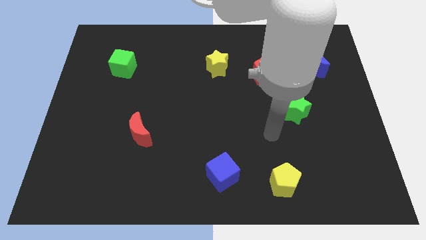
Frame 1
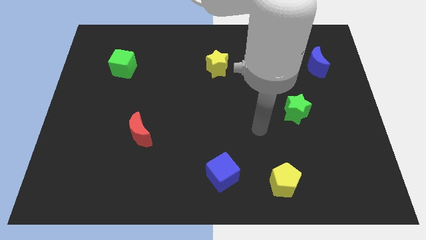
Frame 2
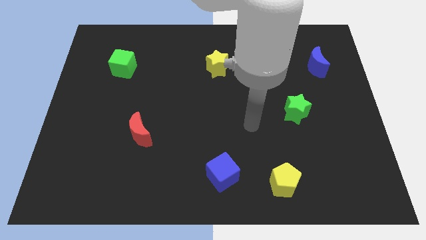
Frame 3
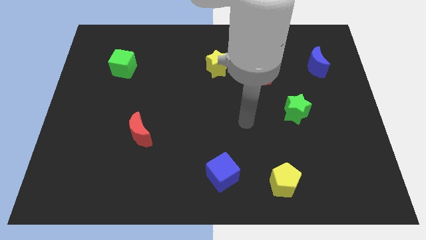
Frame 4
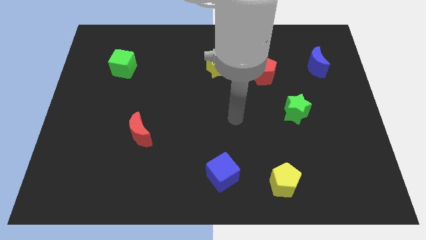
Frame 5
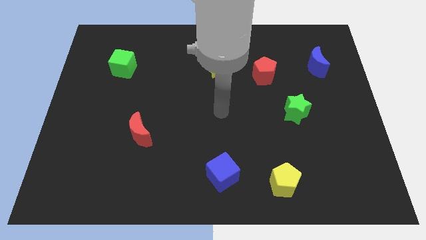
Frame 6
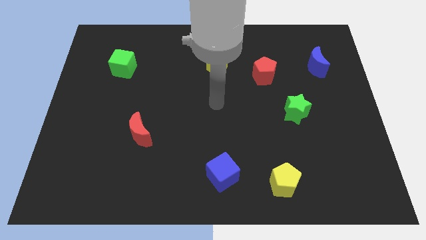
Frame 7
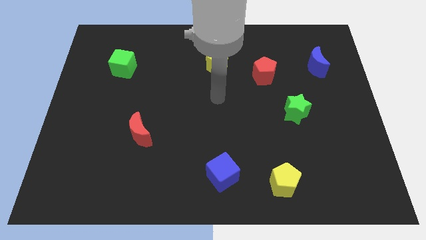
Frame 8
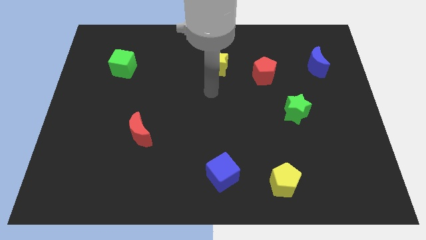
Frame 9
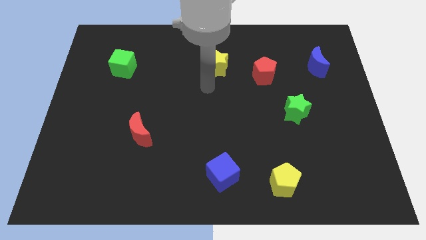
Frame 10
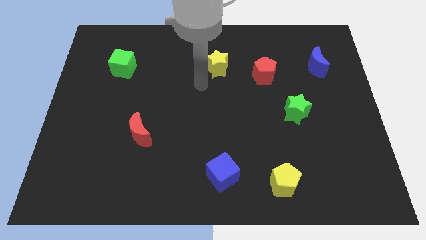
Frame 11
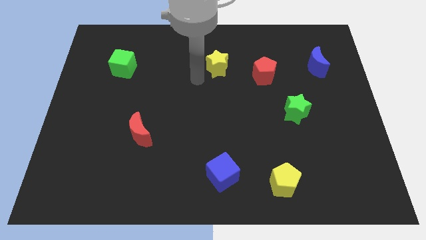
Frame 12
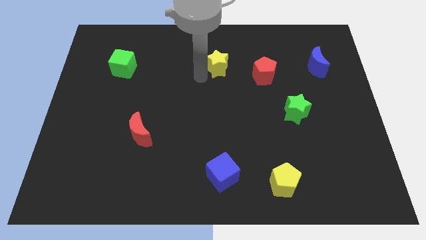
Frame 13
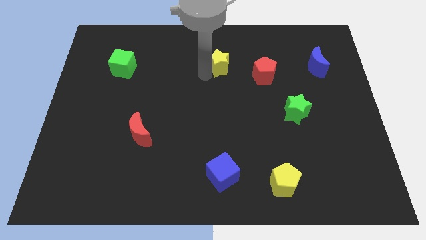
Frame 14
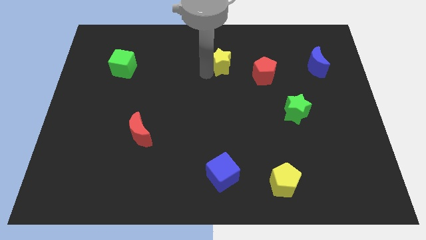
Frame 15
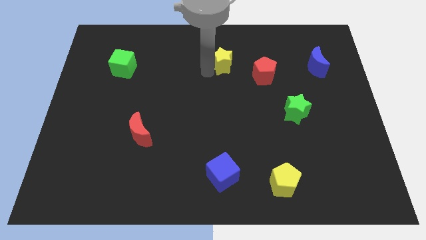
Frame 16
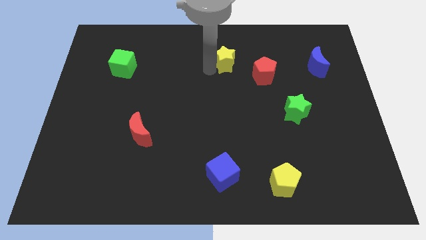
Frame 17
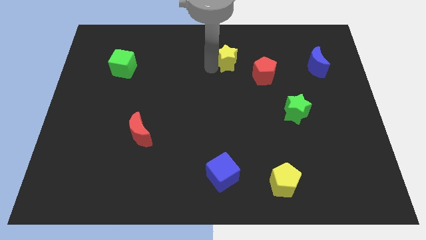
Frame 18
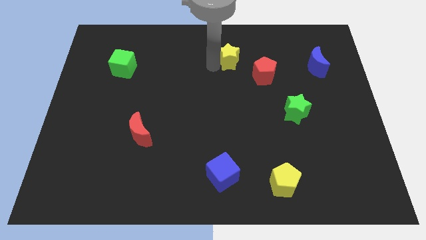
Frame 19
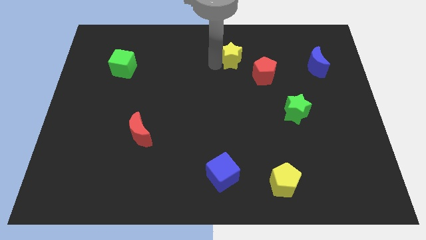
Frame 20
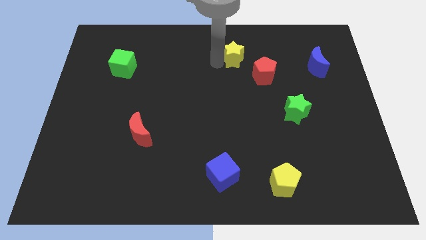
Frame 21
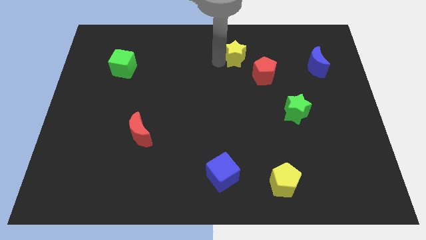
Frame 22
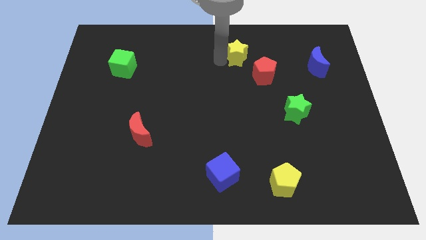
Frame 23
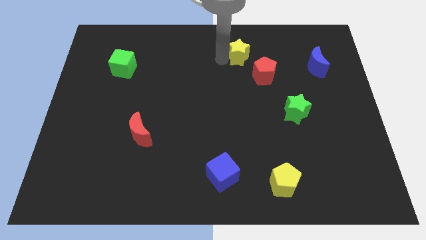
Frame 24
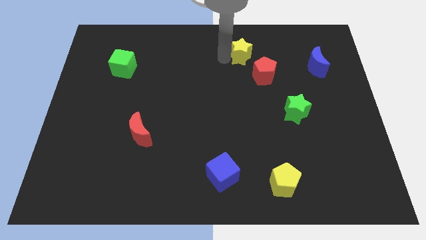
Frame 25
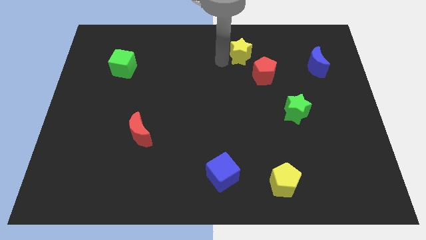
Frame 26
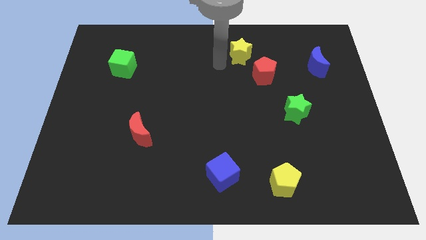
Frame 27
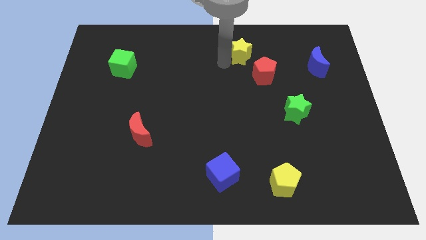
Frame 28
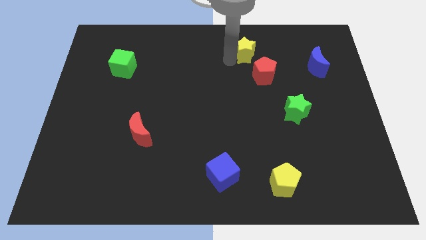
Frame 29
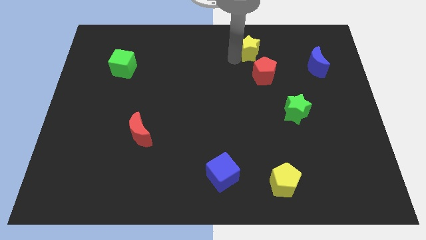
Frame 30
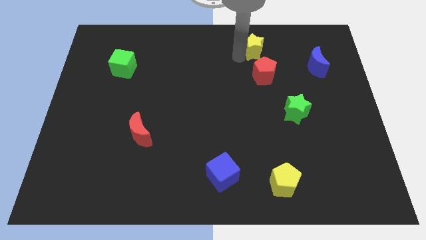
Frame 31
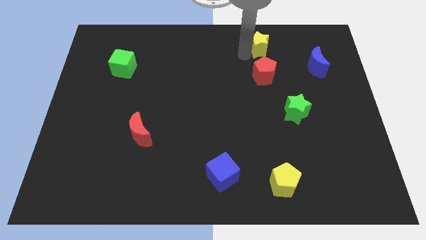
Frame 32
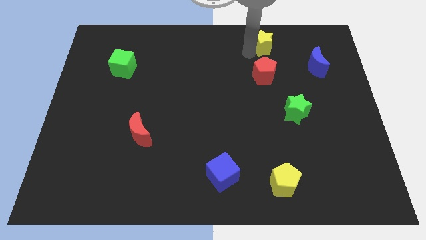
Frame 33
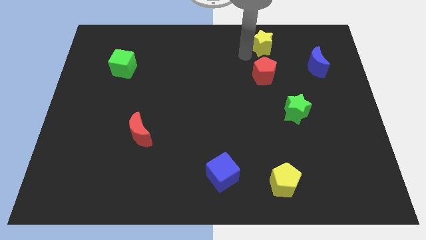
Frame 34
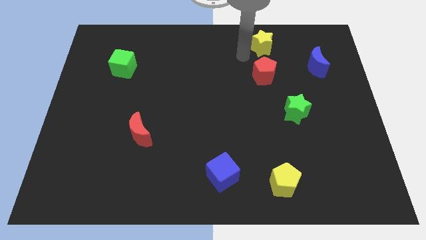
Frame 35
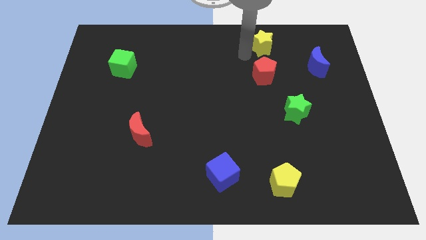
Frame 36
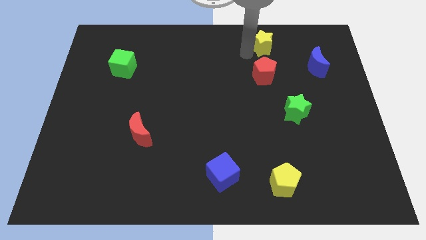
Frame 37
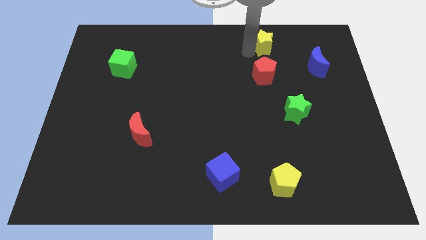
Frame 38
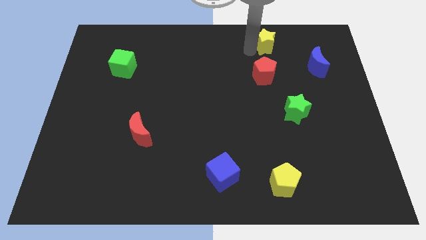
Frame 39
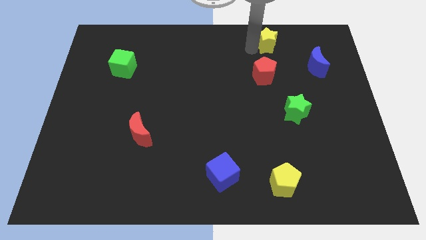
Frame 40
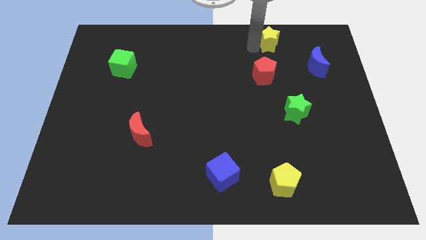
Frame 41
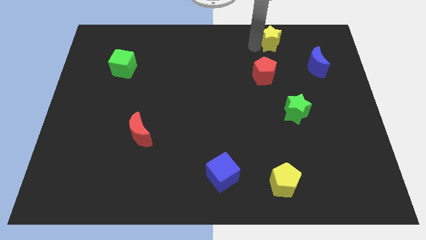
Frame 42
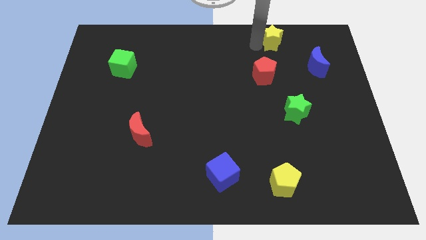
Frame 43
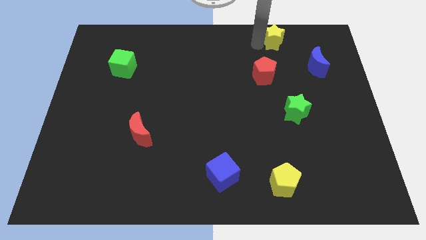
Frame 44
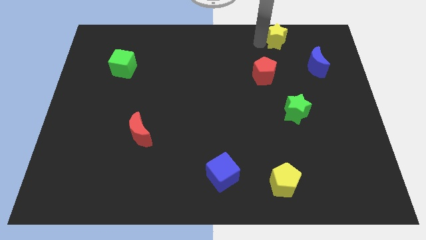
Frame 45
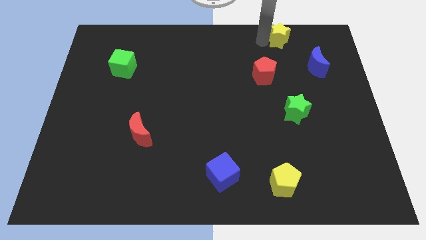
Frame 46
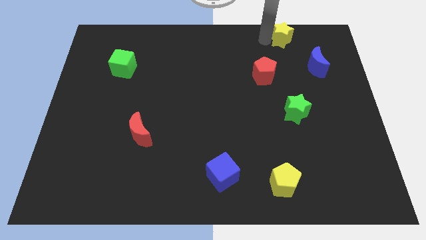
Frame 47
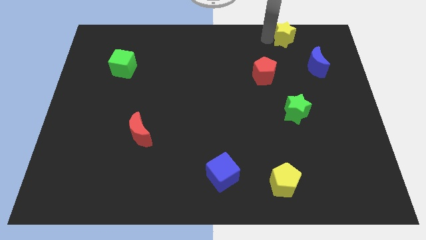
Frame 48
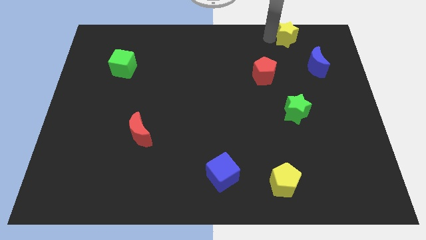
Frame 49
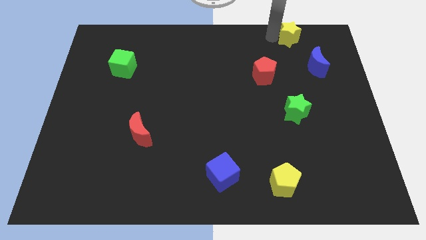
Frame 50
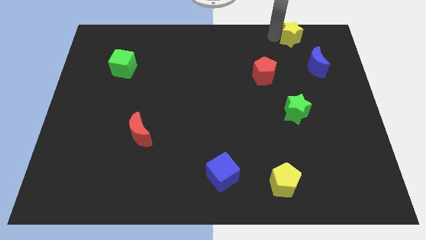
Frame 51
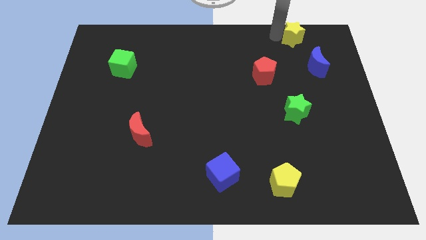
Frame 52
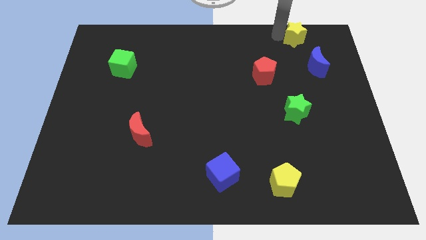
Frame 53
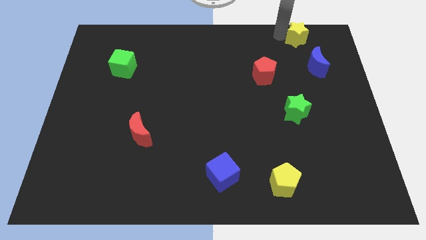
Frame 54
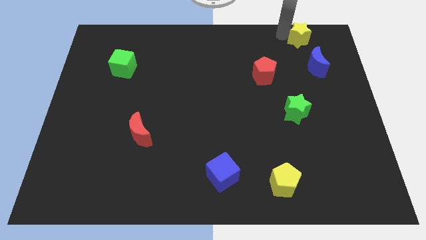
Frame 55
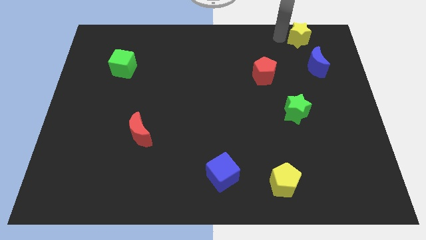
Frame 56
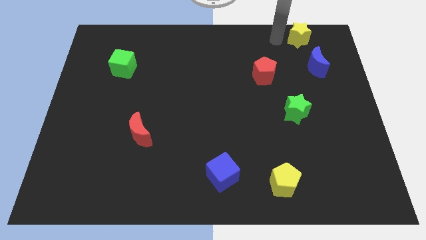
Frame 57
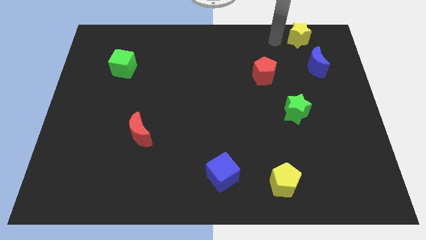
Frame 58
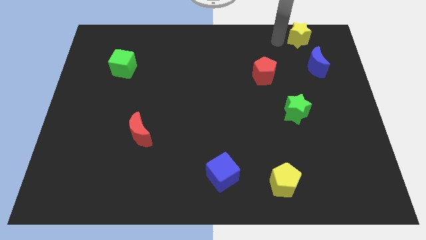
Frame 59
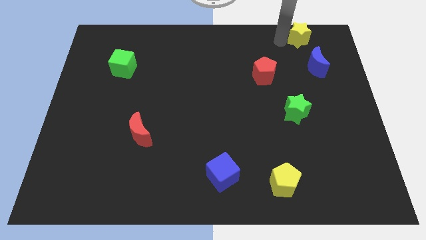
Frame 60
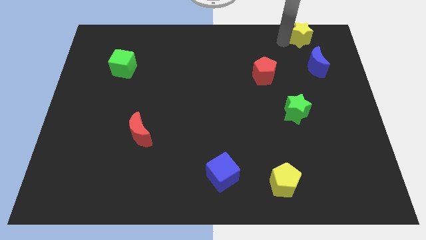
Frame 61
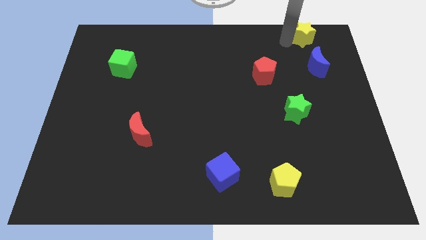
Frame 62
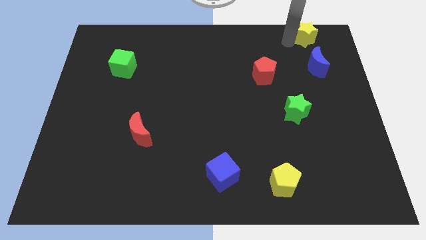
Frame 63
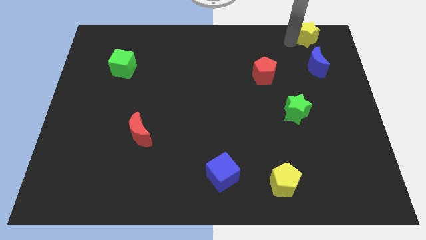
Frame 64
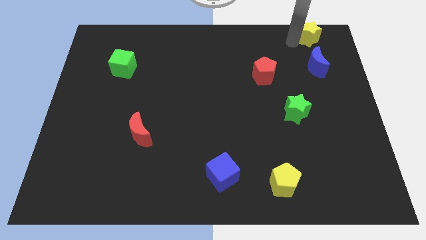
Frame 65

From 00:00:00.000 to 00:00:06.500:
put the yellow star to the top right of the board

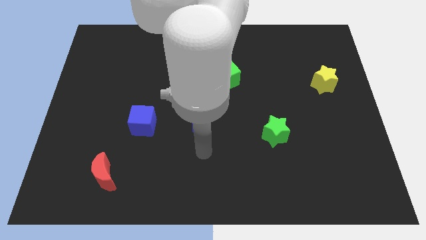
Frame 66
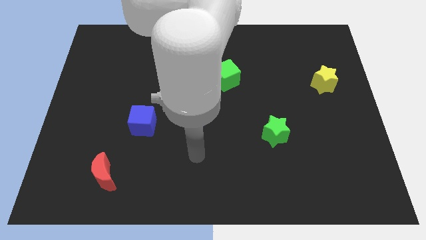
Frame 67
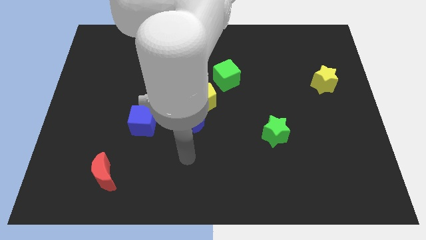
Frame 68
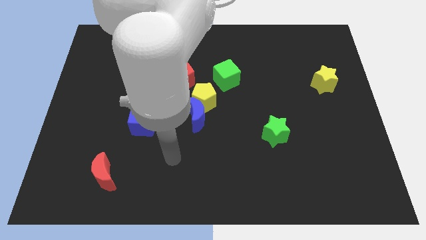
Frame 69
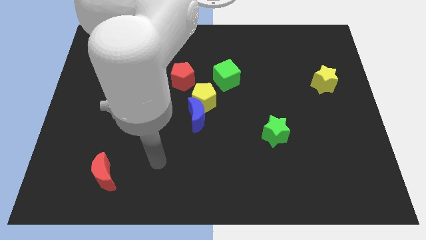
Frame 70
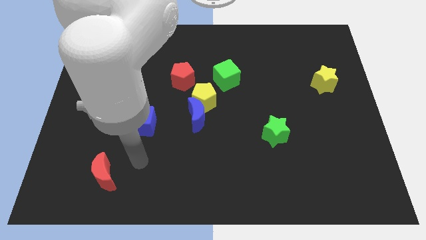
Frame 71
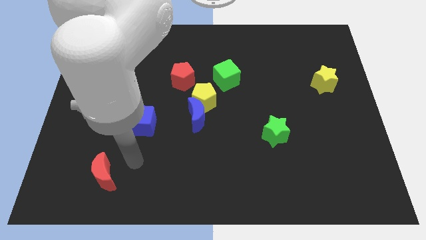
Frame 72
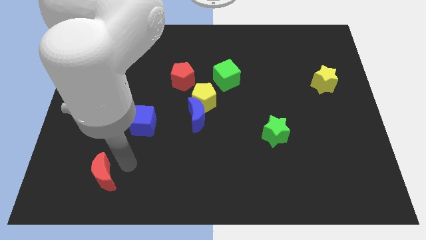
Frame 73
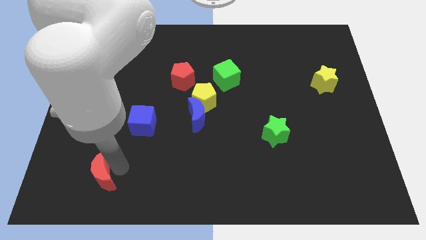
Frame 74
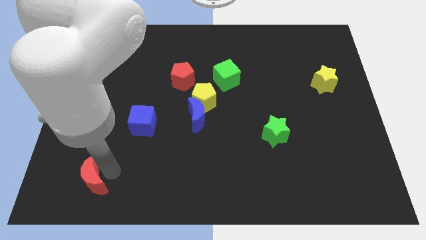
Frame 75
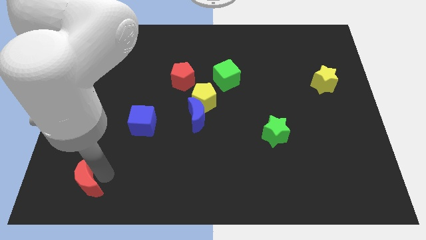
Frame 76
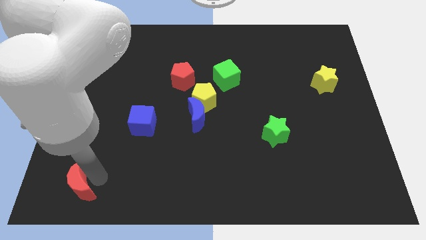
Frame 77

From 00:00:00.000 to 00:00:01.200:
push the red moon to the bottom left
